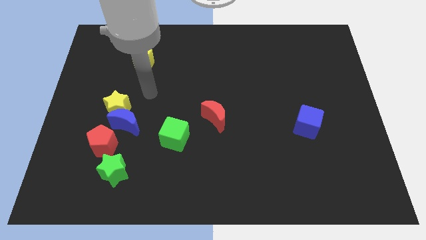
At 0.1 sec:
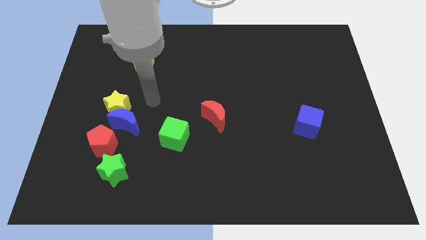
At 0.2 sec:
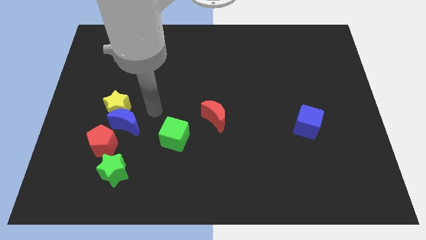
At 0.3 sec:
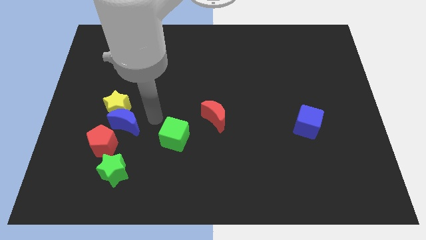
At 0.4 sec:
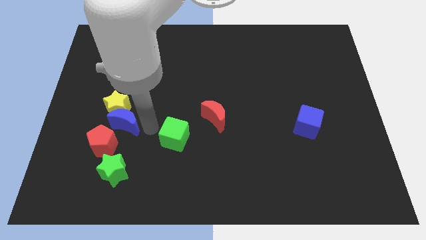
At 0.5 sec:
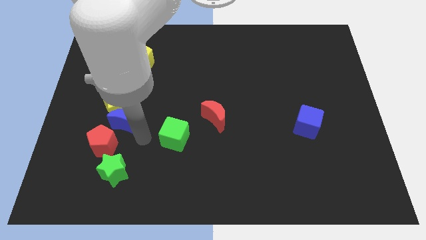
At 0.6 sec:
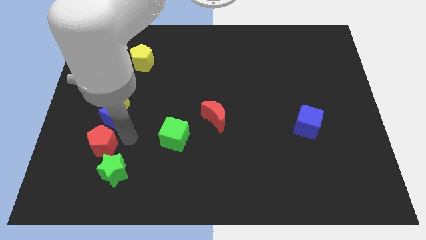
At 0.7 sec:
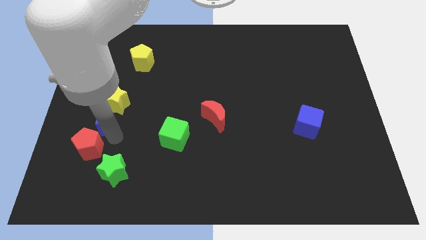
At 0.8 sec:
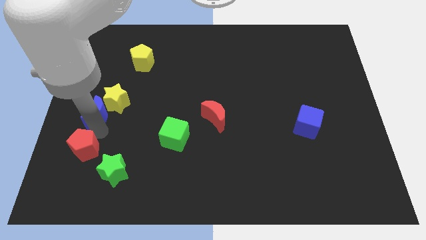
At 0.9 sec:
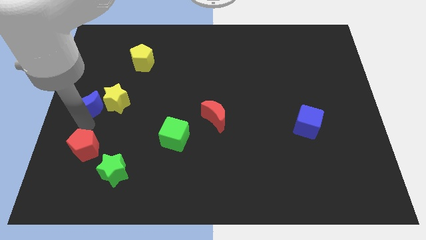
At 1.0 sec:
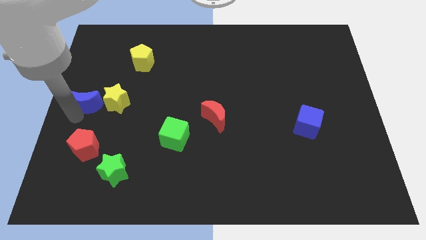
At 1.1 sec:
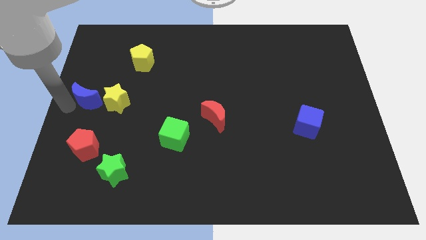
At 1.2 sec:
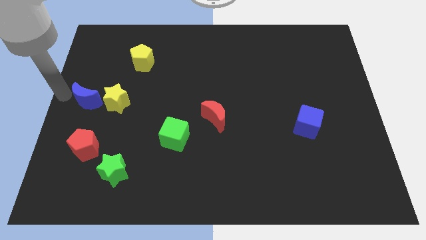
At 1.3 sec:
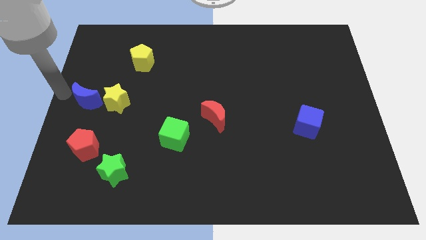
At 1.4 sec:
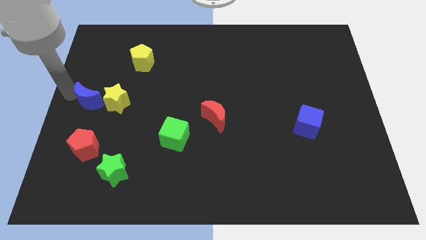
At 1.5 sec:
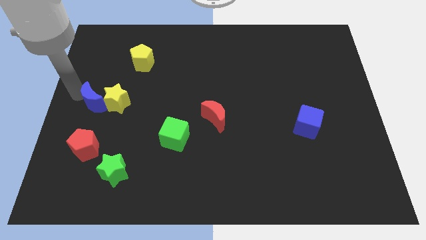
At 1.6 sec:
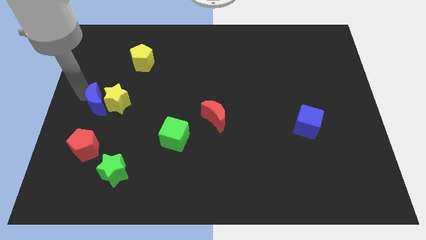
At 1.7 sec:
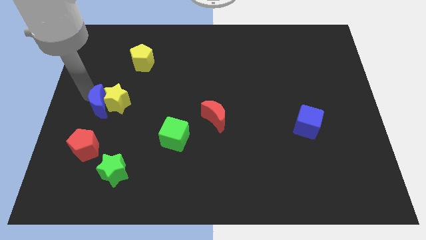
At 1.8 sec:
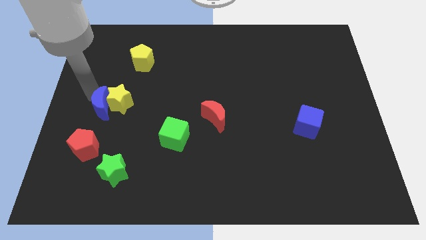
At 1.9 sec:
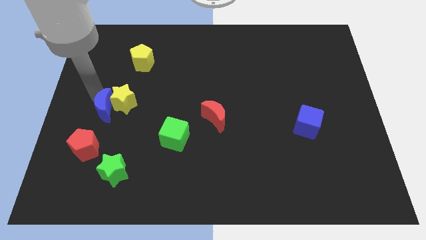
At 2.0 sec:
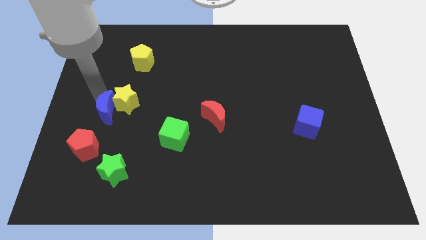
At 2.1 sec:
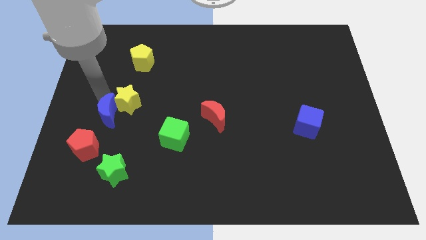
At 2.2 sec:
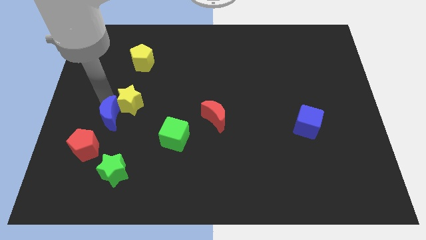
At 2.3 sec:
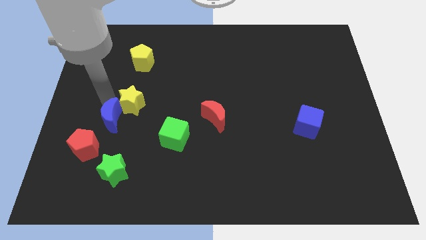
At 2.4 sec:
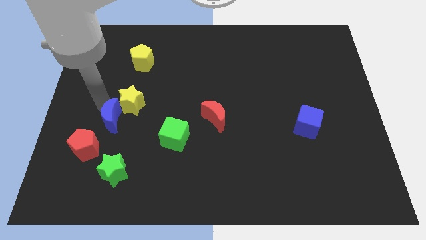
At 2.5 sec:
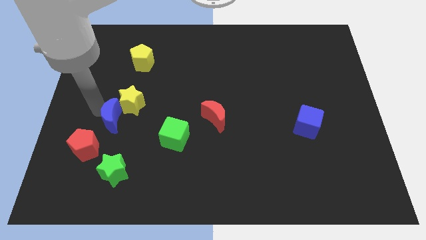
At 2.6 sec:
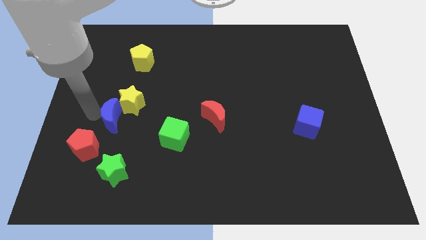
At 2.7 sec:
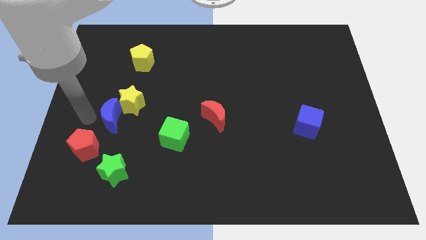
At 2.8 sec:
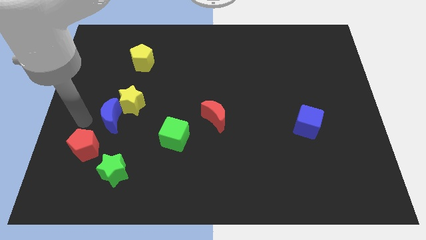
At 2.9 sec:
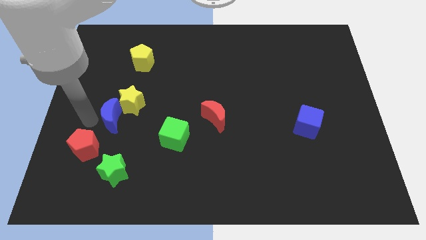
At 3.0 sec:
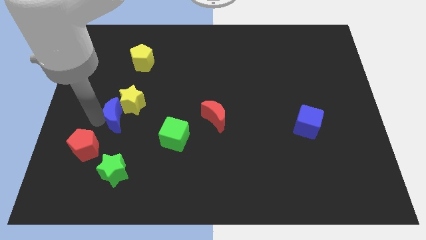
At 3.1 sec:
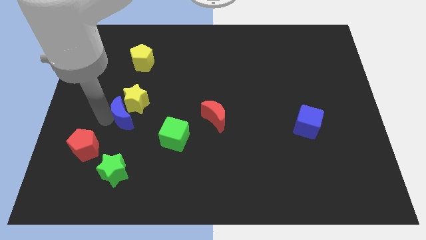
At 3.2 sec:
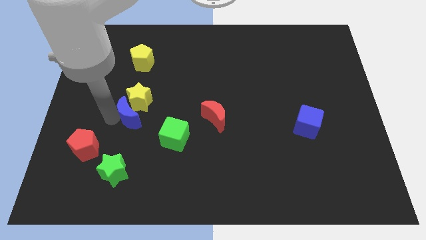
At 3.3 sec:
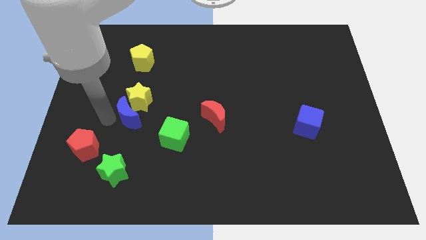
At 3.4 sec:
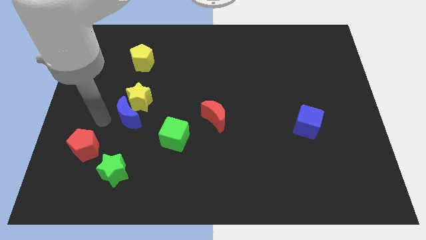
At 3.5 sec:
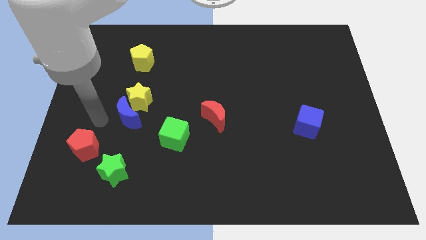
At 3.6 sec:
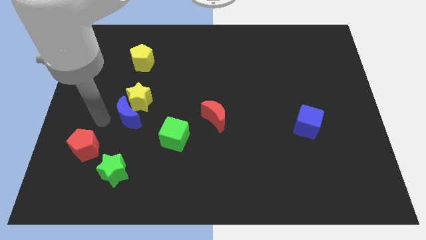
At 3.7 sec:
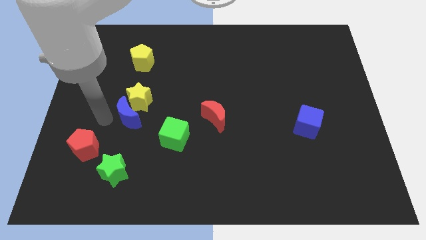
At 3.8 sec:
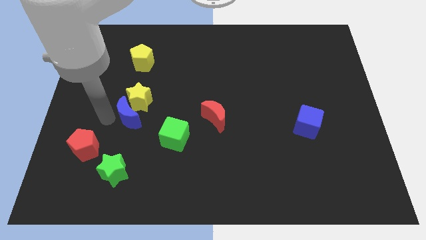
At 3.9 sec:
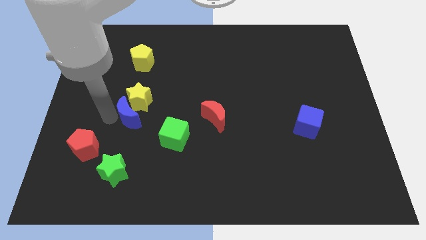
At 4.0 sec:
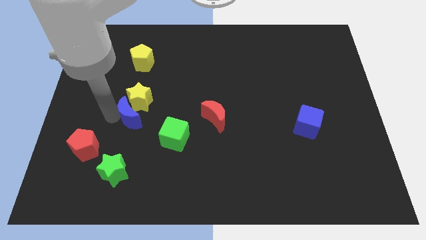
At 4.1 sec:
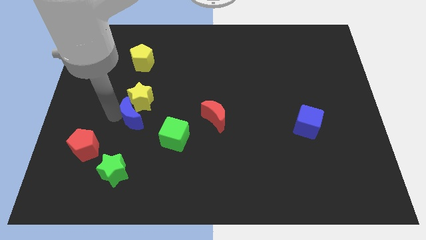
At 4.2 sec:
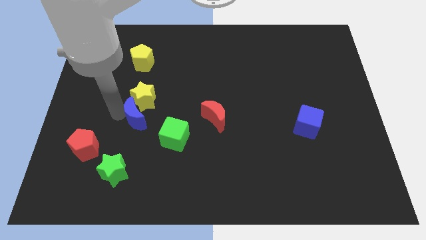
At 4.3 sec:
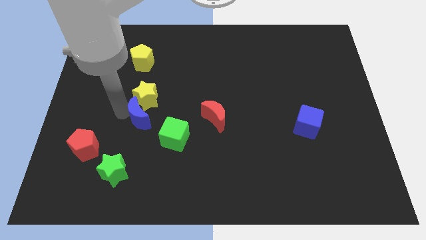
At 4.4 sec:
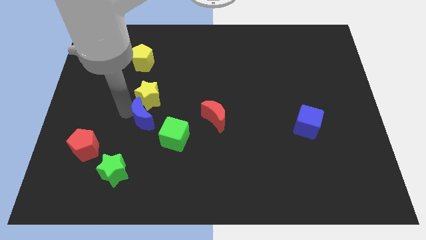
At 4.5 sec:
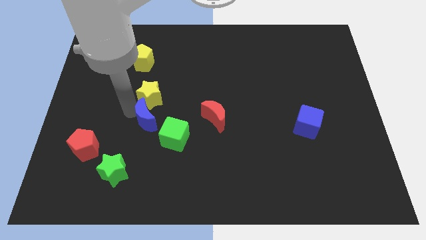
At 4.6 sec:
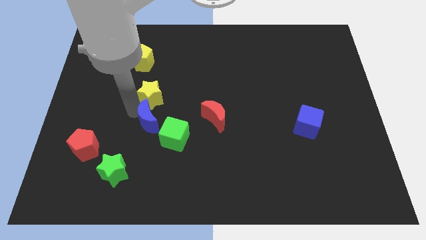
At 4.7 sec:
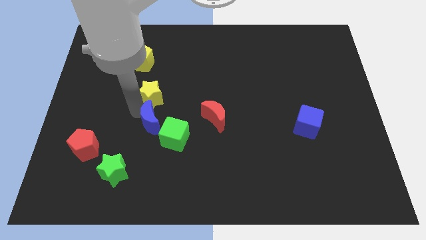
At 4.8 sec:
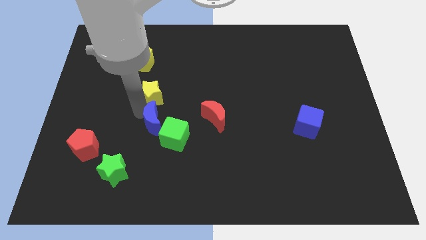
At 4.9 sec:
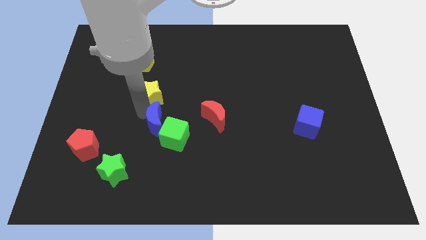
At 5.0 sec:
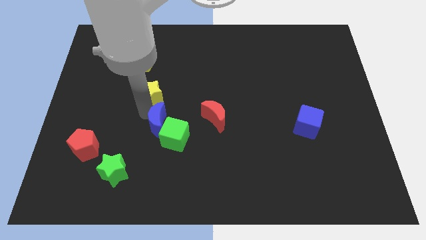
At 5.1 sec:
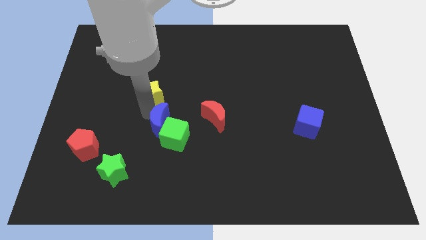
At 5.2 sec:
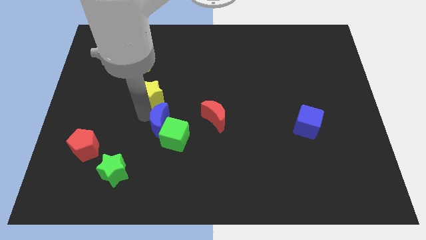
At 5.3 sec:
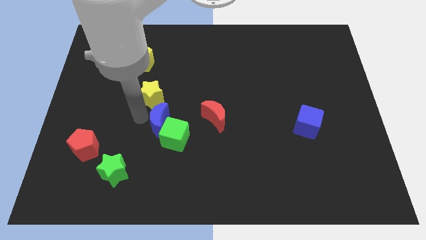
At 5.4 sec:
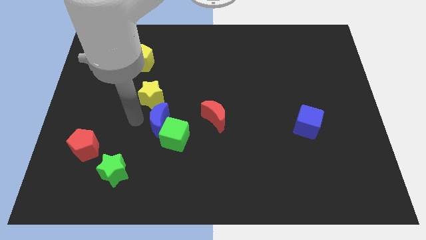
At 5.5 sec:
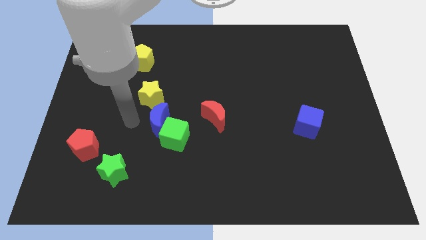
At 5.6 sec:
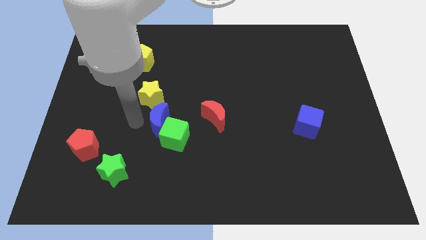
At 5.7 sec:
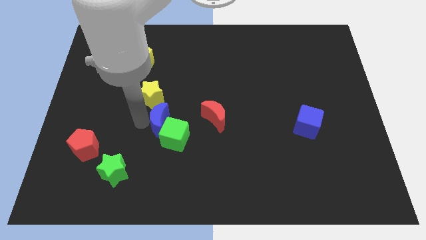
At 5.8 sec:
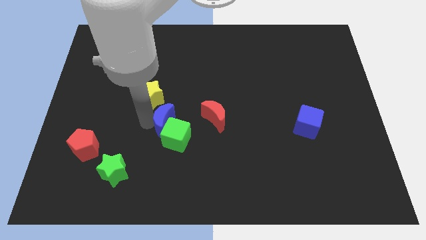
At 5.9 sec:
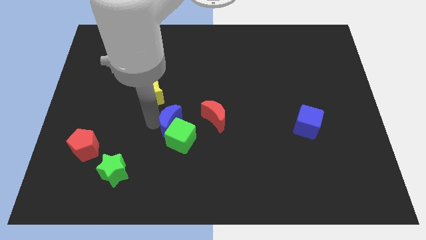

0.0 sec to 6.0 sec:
separate the blue moon from the yellow star and red pentagon

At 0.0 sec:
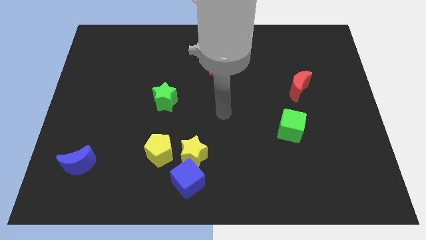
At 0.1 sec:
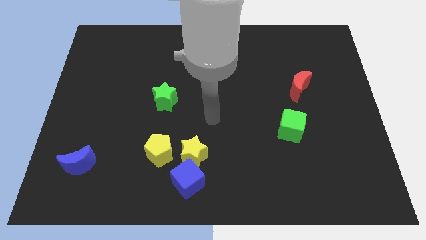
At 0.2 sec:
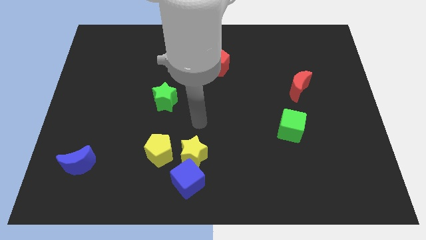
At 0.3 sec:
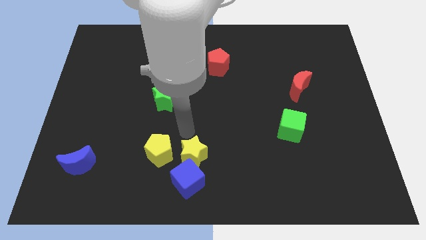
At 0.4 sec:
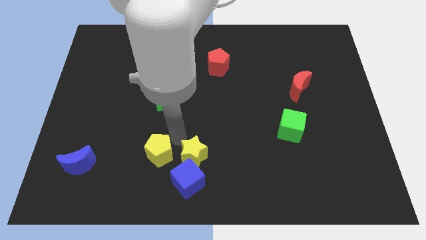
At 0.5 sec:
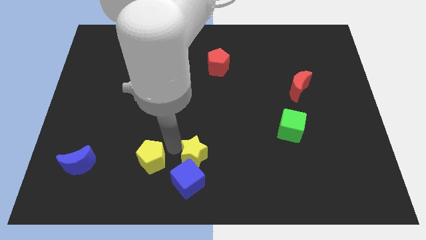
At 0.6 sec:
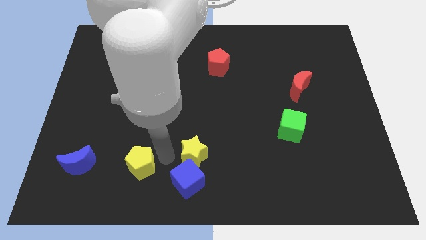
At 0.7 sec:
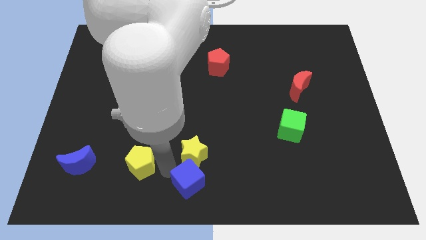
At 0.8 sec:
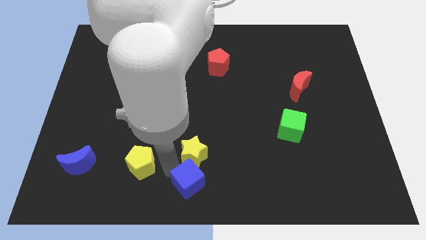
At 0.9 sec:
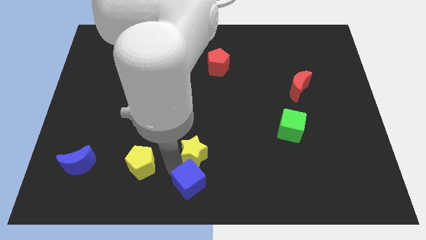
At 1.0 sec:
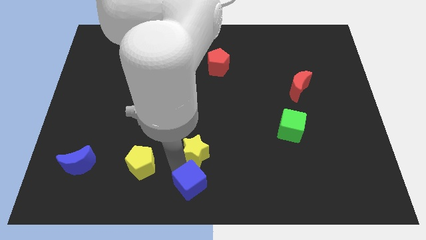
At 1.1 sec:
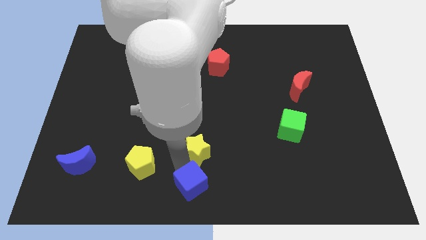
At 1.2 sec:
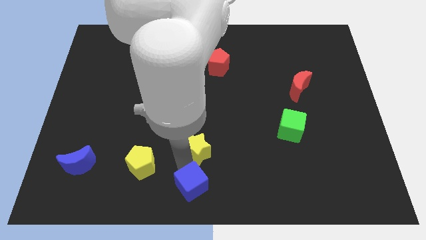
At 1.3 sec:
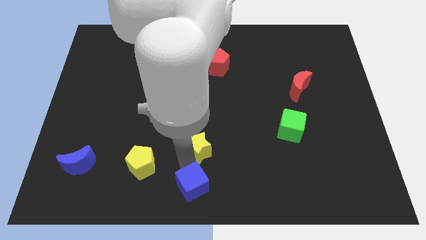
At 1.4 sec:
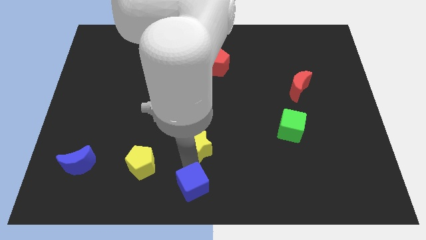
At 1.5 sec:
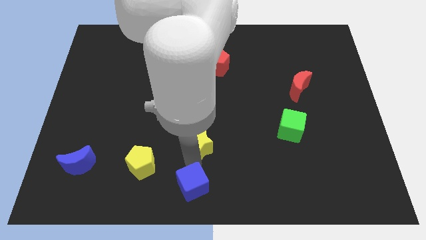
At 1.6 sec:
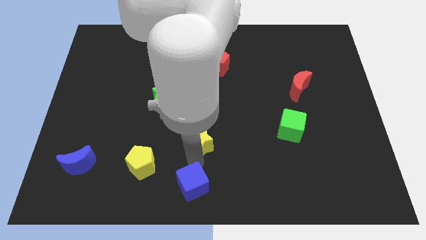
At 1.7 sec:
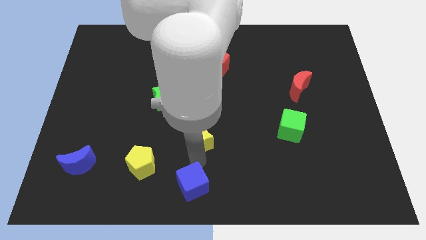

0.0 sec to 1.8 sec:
separate the yellow star from the blue cube and yellow pentagon

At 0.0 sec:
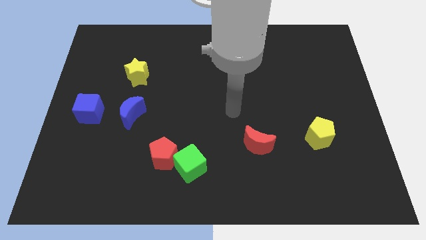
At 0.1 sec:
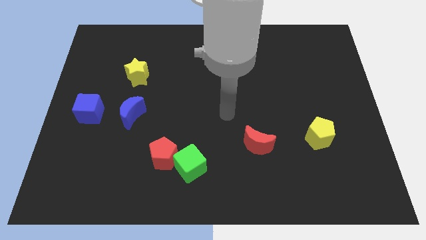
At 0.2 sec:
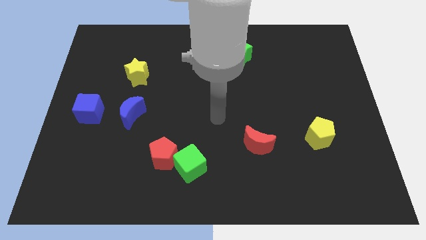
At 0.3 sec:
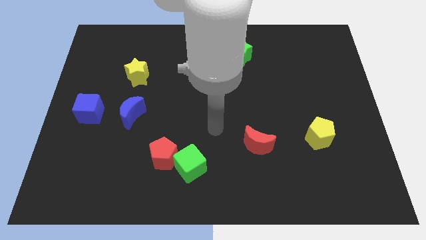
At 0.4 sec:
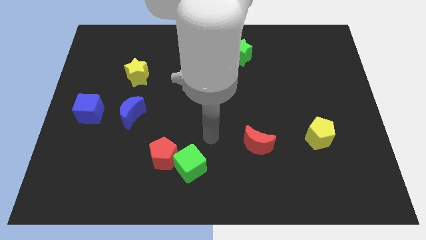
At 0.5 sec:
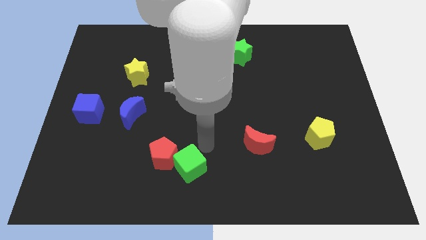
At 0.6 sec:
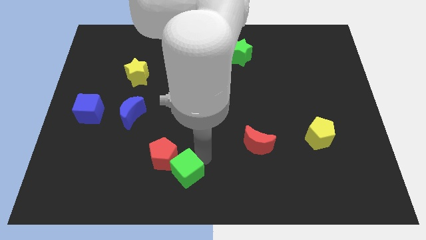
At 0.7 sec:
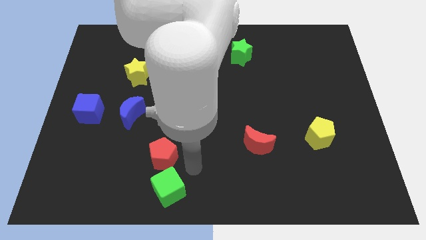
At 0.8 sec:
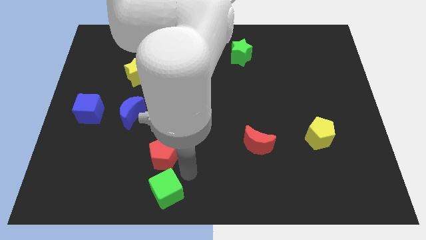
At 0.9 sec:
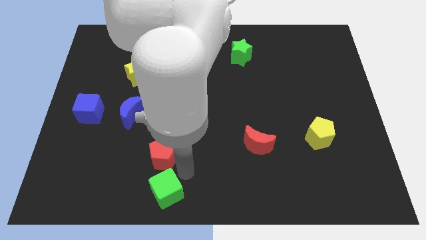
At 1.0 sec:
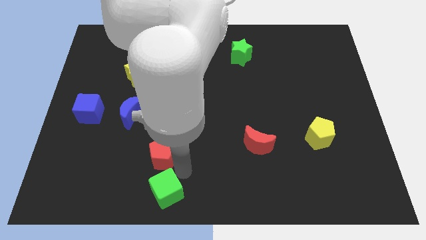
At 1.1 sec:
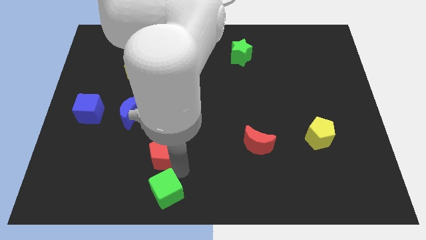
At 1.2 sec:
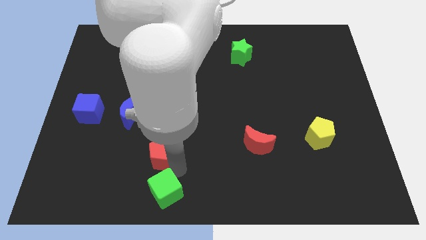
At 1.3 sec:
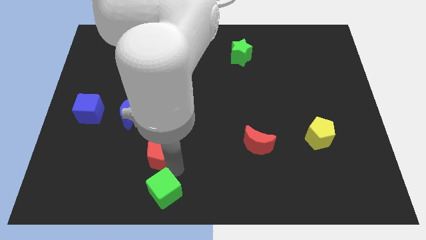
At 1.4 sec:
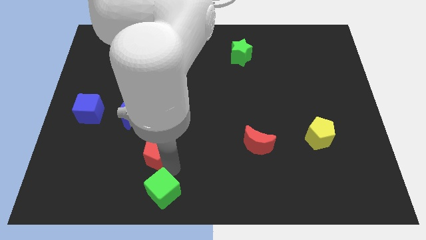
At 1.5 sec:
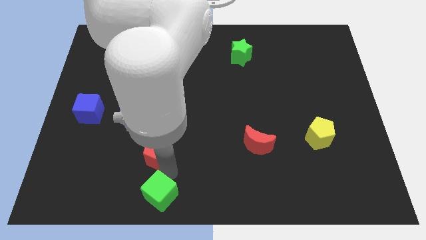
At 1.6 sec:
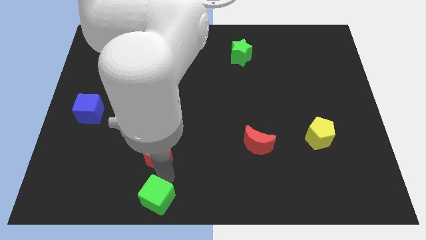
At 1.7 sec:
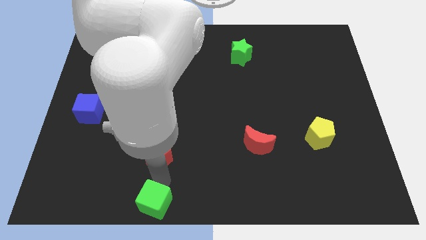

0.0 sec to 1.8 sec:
separate the red pentagon from the green cube
